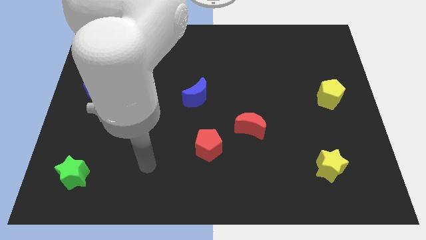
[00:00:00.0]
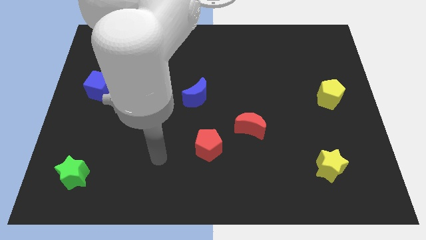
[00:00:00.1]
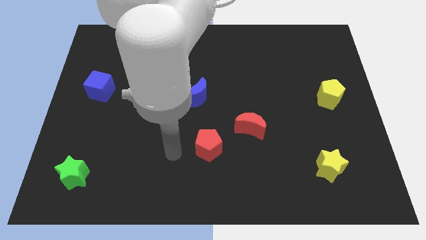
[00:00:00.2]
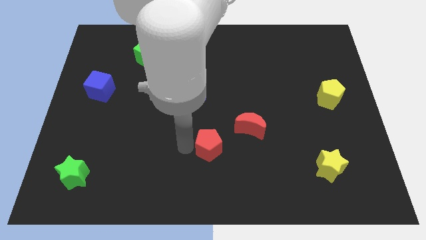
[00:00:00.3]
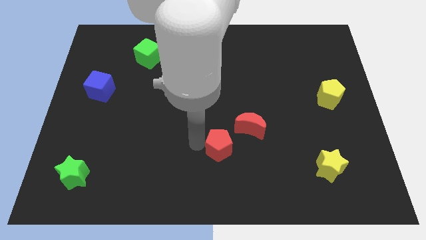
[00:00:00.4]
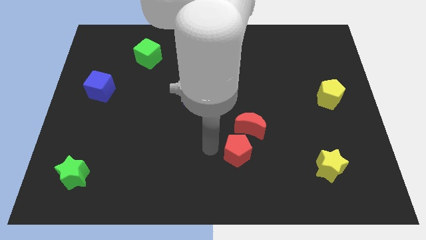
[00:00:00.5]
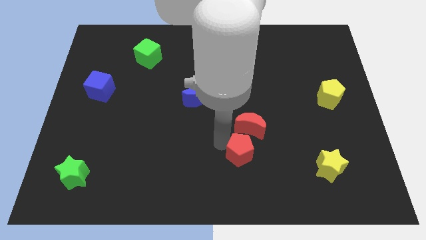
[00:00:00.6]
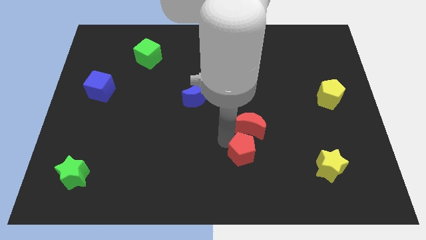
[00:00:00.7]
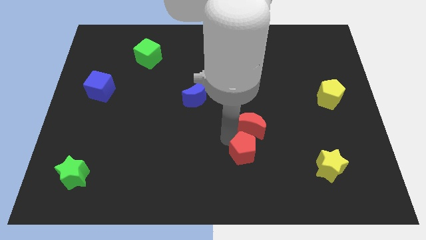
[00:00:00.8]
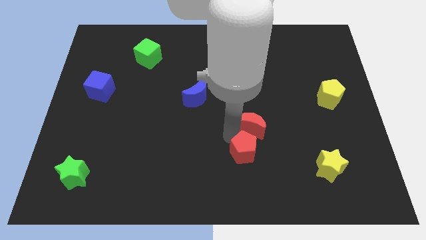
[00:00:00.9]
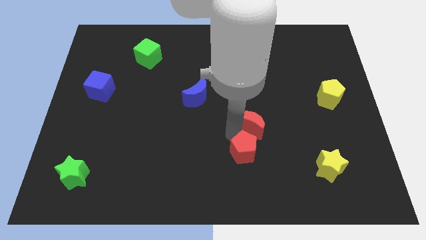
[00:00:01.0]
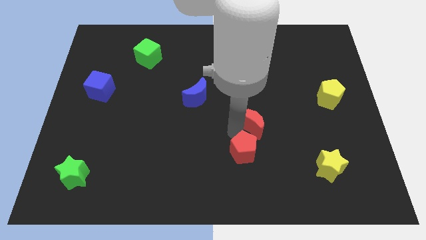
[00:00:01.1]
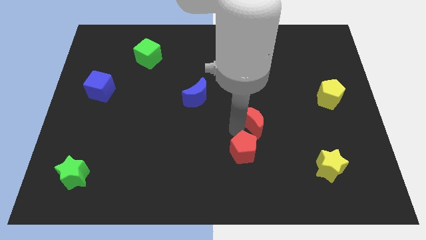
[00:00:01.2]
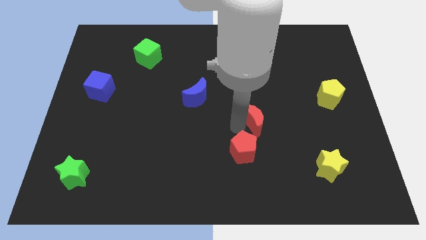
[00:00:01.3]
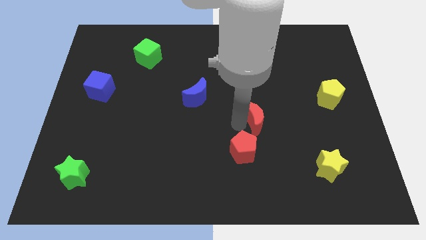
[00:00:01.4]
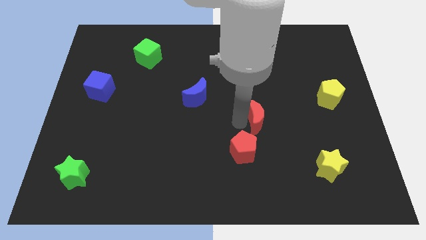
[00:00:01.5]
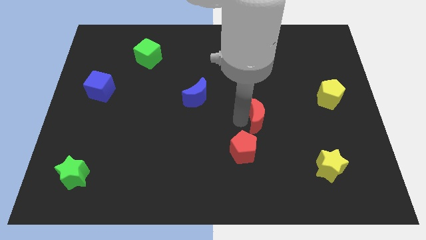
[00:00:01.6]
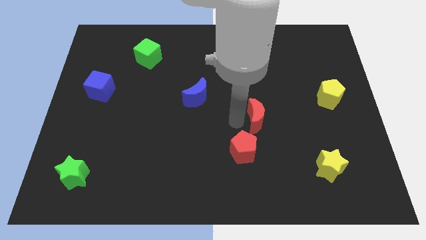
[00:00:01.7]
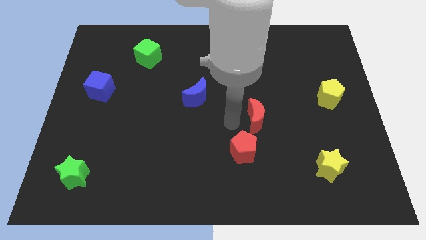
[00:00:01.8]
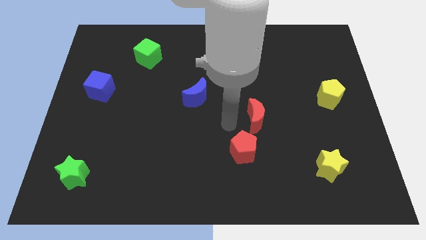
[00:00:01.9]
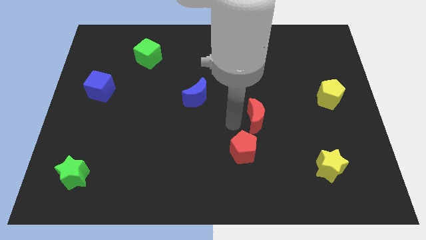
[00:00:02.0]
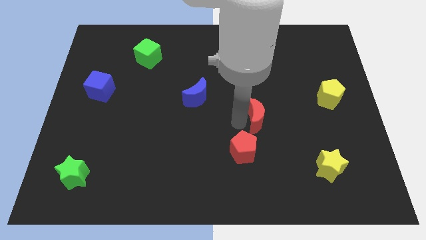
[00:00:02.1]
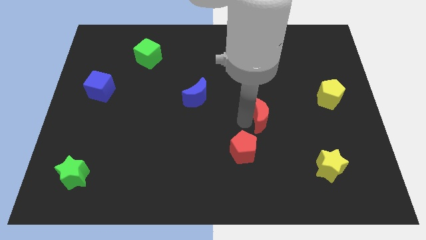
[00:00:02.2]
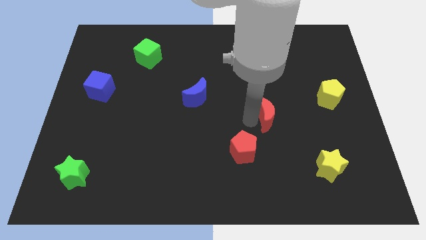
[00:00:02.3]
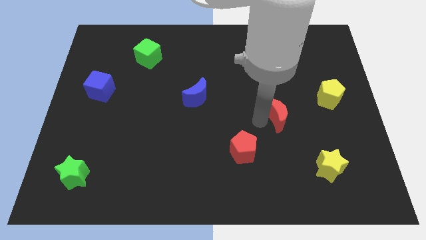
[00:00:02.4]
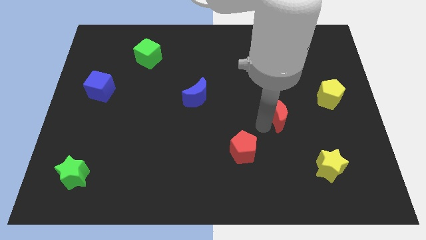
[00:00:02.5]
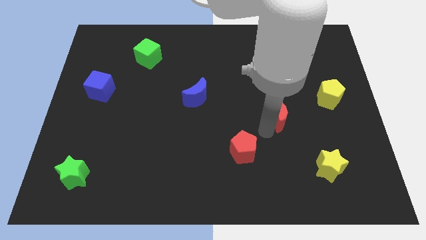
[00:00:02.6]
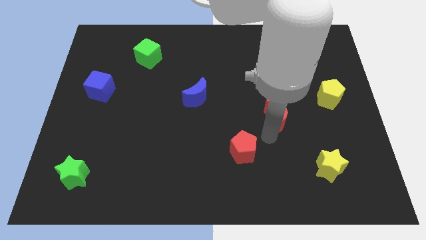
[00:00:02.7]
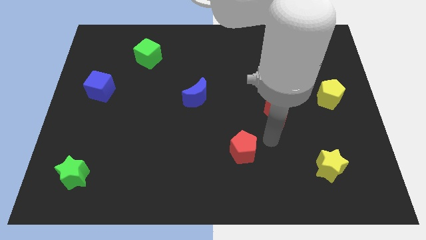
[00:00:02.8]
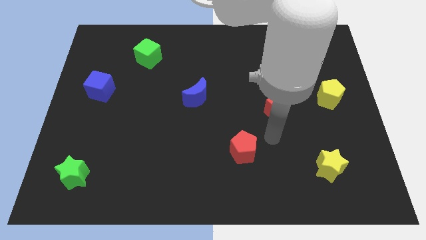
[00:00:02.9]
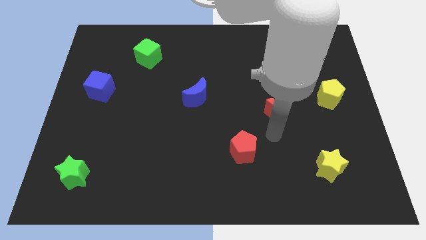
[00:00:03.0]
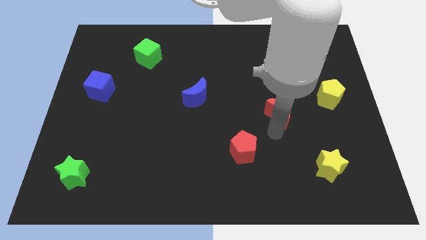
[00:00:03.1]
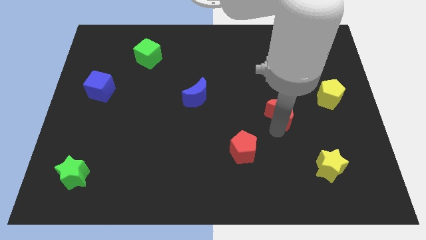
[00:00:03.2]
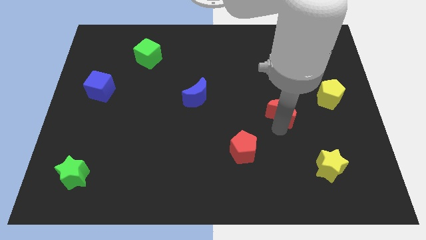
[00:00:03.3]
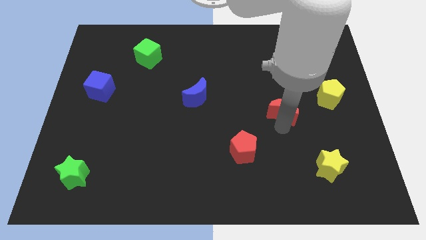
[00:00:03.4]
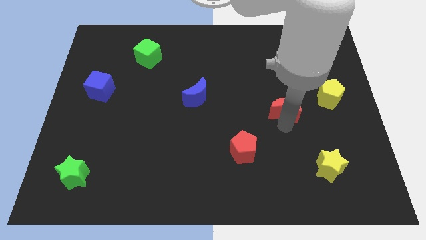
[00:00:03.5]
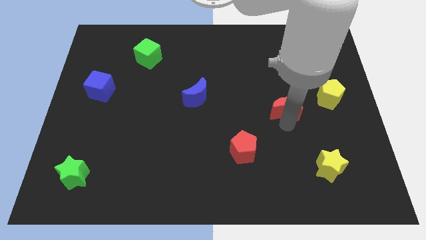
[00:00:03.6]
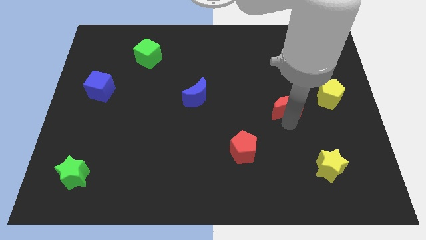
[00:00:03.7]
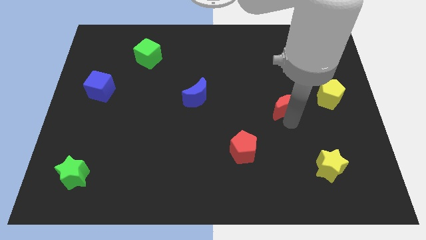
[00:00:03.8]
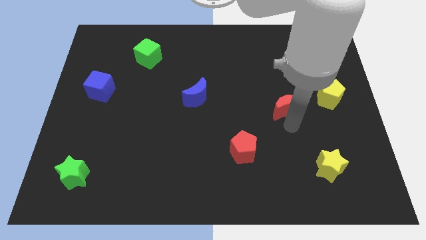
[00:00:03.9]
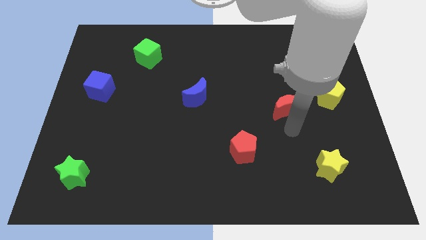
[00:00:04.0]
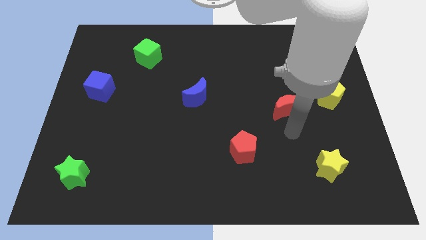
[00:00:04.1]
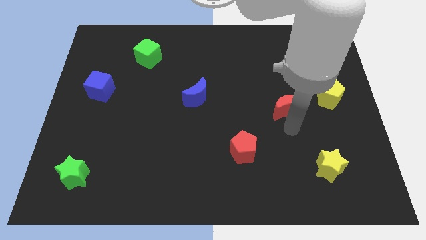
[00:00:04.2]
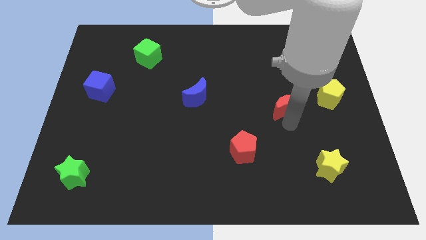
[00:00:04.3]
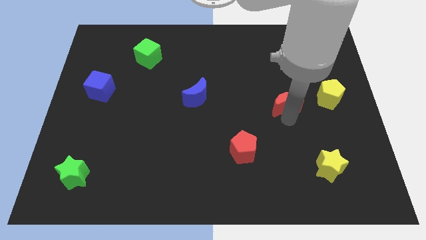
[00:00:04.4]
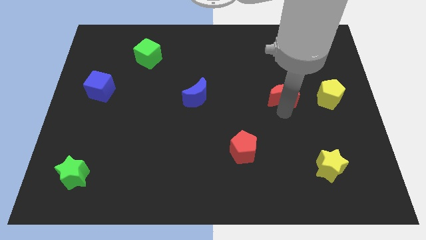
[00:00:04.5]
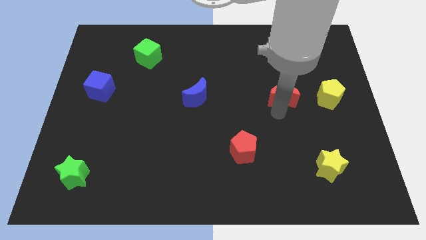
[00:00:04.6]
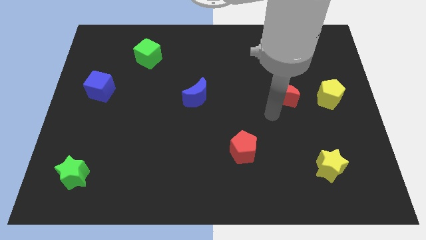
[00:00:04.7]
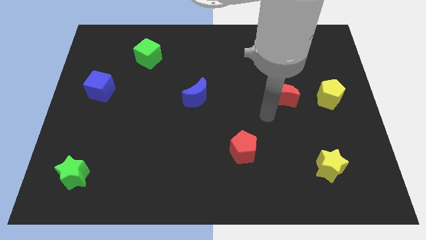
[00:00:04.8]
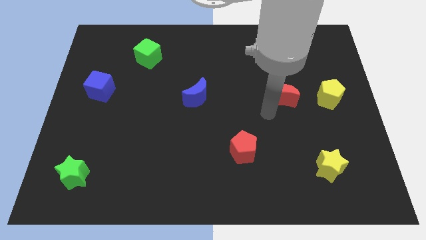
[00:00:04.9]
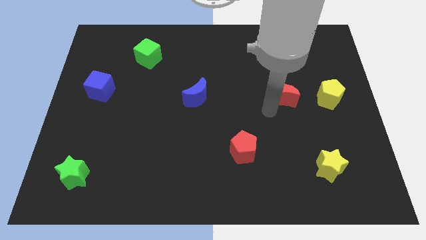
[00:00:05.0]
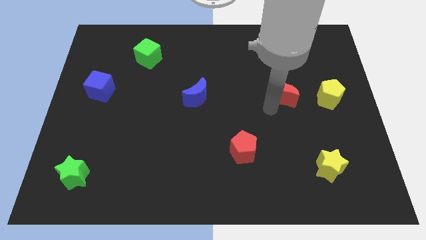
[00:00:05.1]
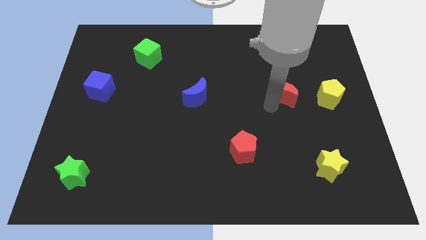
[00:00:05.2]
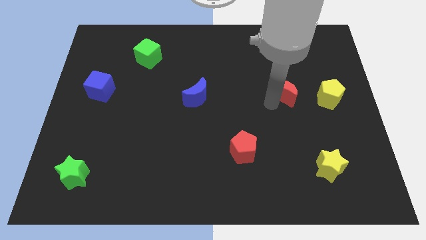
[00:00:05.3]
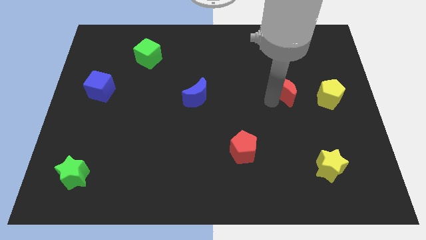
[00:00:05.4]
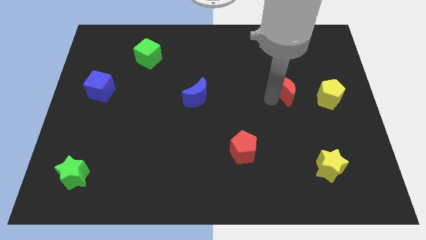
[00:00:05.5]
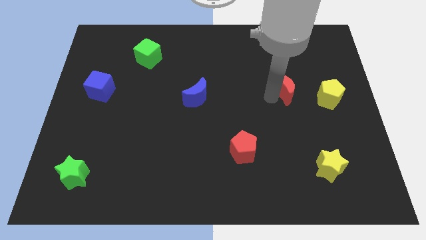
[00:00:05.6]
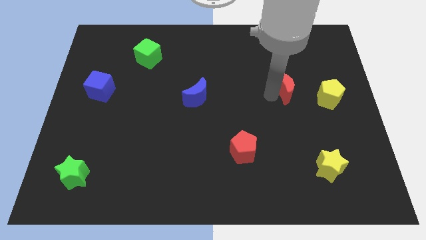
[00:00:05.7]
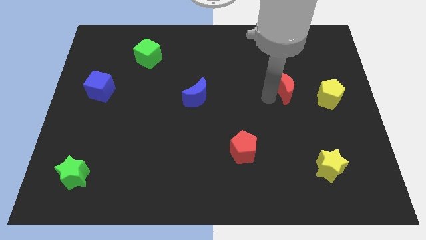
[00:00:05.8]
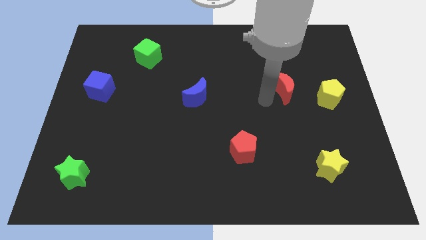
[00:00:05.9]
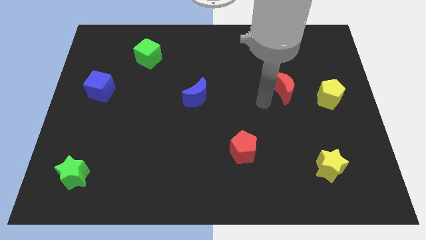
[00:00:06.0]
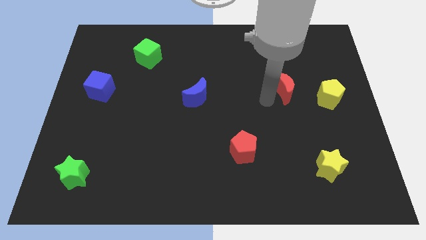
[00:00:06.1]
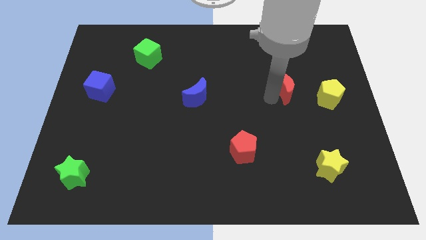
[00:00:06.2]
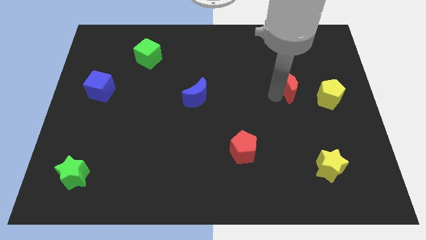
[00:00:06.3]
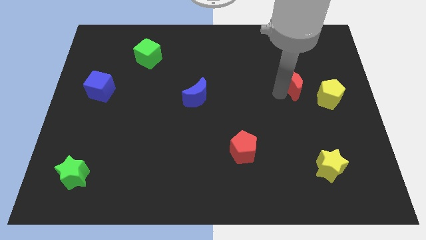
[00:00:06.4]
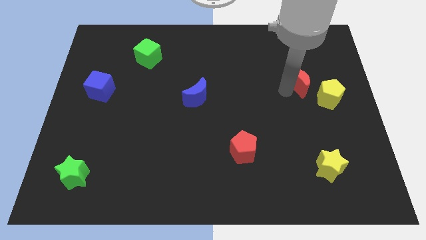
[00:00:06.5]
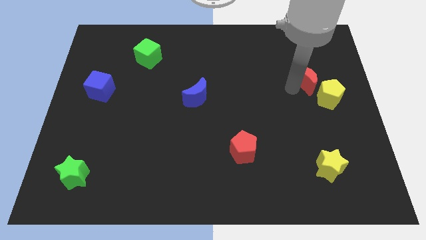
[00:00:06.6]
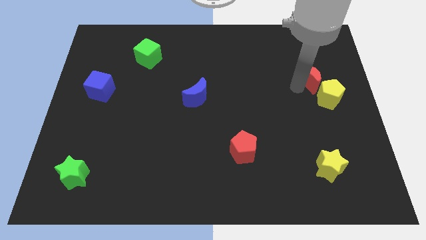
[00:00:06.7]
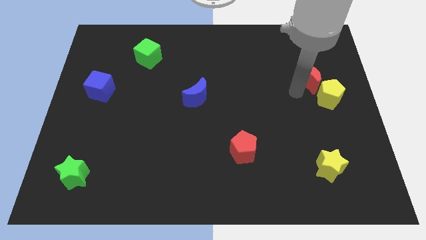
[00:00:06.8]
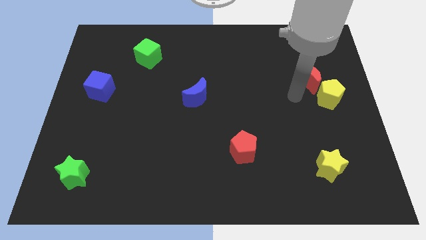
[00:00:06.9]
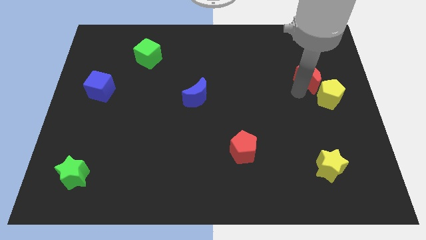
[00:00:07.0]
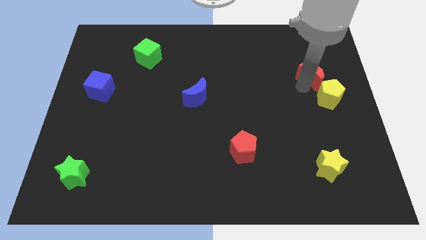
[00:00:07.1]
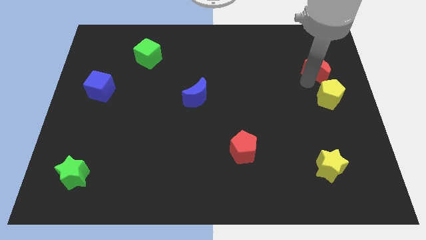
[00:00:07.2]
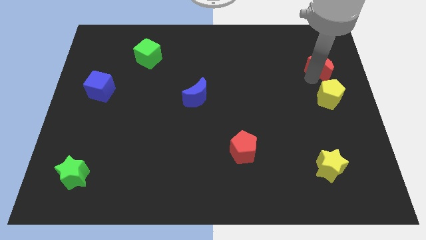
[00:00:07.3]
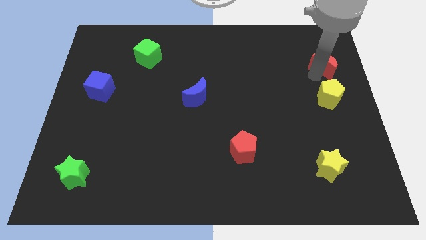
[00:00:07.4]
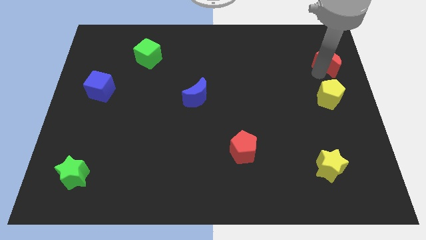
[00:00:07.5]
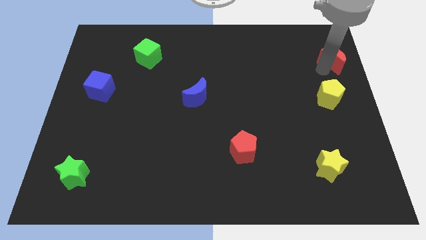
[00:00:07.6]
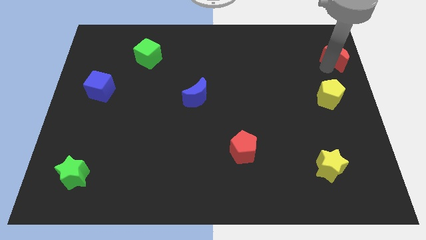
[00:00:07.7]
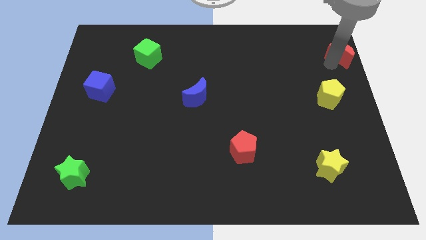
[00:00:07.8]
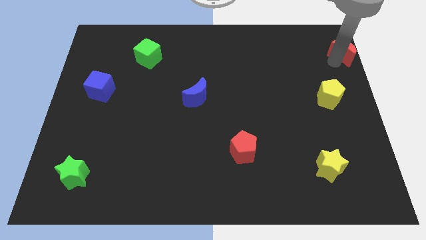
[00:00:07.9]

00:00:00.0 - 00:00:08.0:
move the red moon to the top right corner
